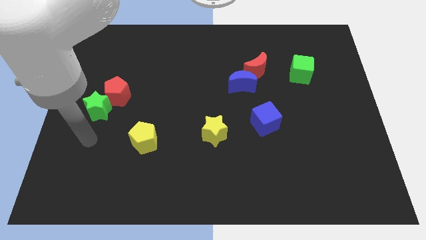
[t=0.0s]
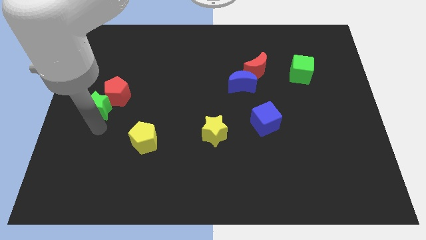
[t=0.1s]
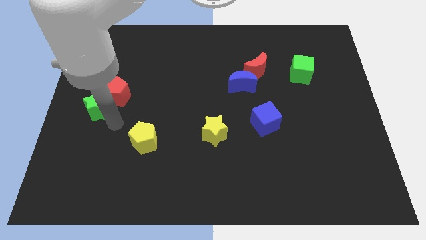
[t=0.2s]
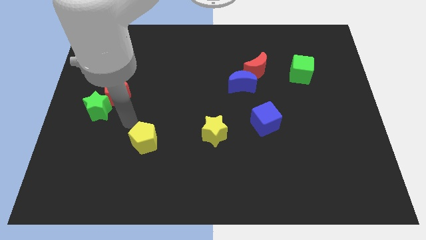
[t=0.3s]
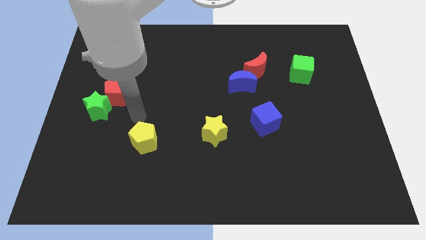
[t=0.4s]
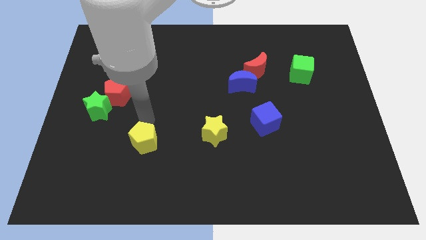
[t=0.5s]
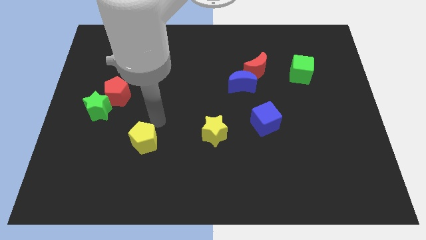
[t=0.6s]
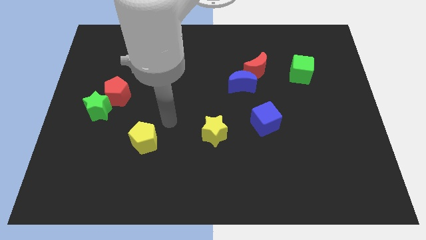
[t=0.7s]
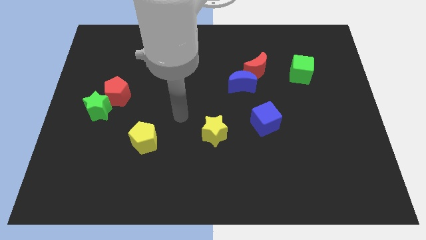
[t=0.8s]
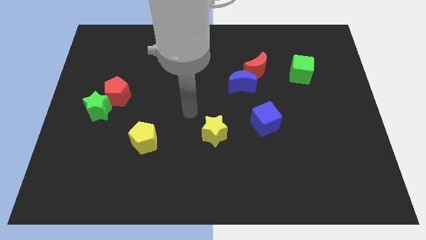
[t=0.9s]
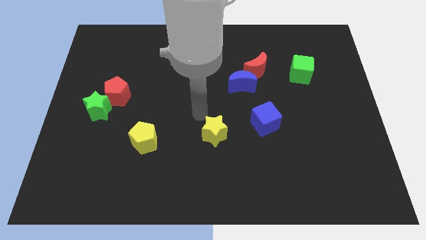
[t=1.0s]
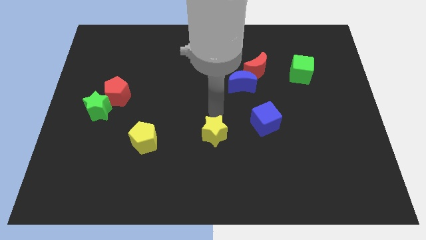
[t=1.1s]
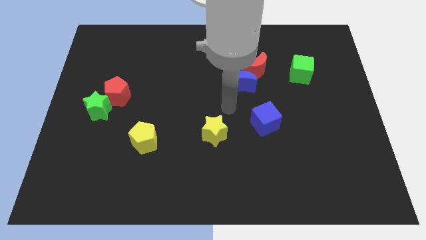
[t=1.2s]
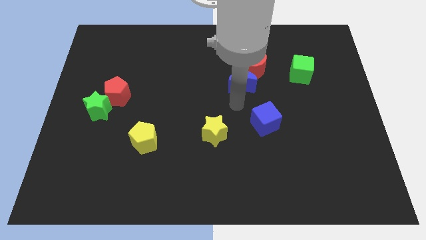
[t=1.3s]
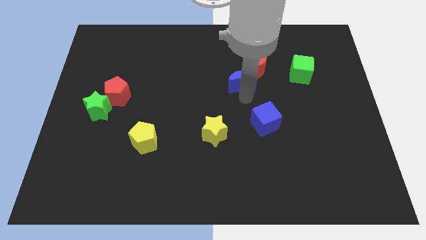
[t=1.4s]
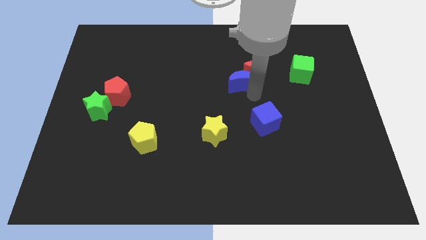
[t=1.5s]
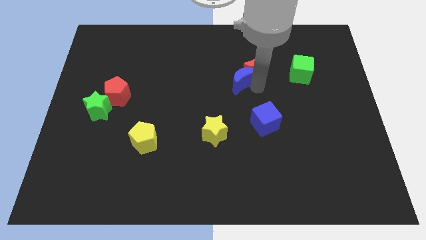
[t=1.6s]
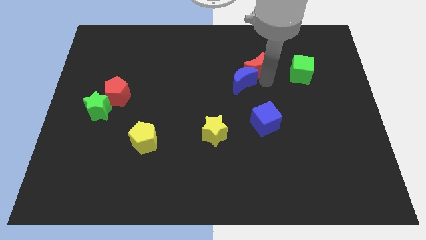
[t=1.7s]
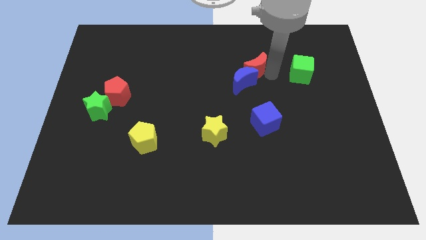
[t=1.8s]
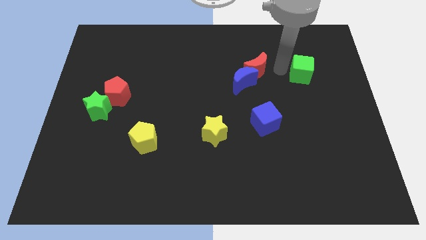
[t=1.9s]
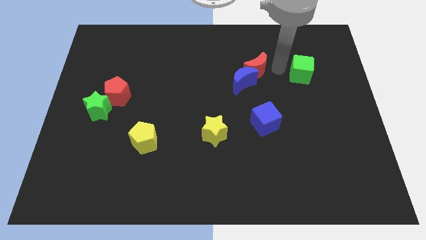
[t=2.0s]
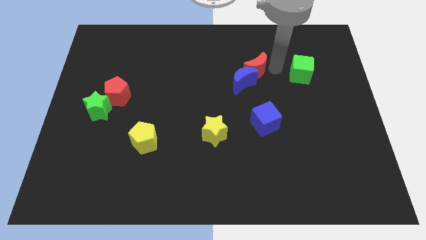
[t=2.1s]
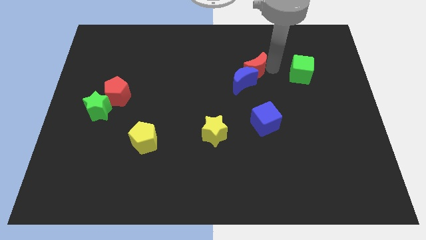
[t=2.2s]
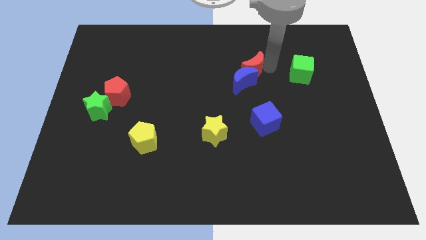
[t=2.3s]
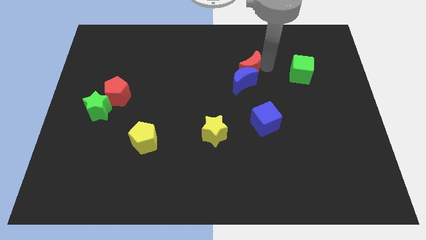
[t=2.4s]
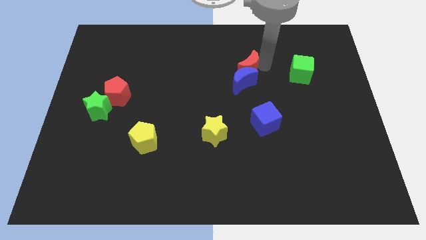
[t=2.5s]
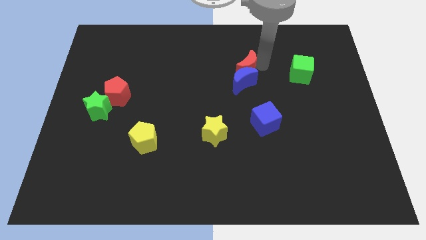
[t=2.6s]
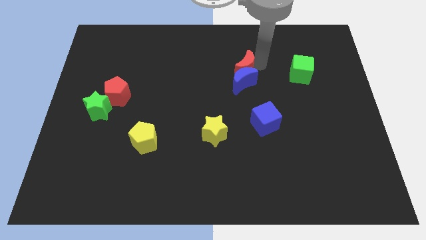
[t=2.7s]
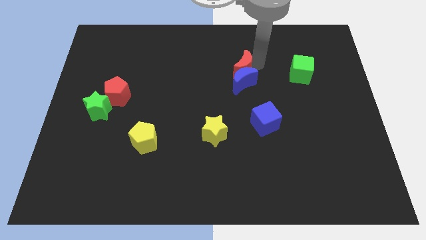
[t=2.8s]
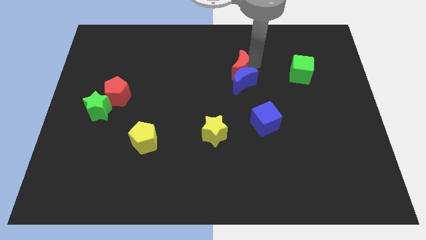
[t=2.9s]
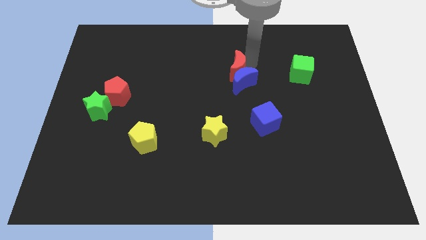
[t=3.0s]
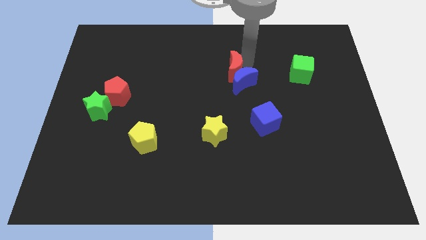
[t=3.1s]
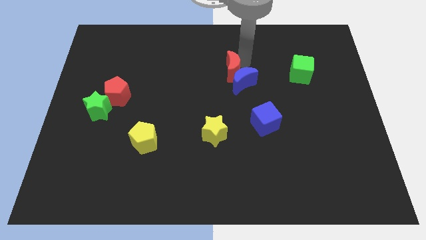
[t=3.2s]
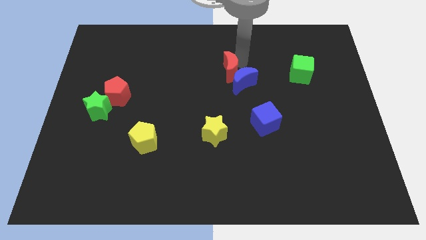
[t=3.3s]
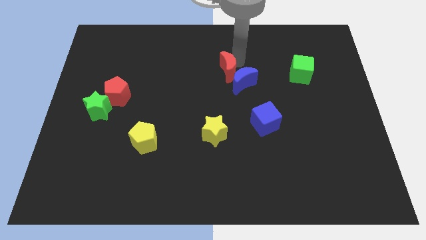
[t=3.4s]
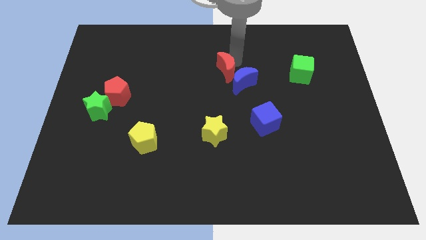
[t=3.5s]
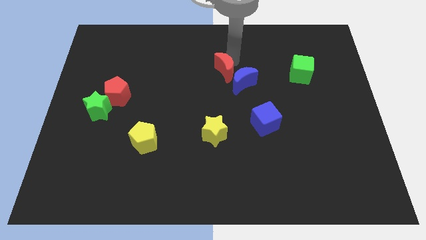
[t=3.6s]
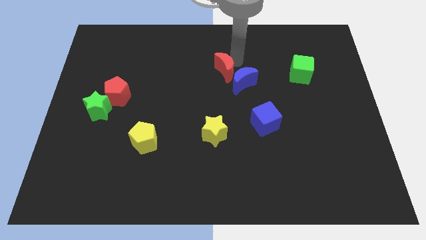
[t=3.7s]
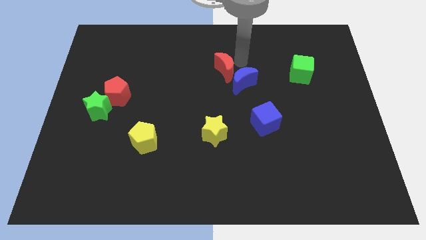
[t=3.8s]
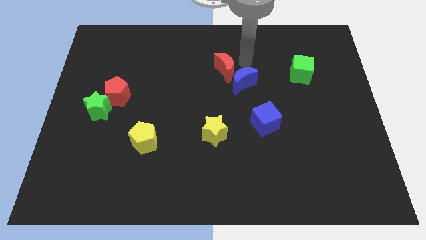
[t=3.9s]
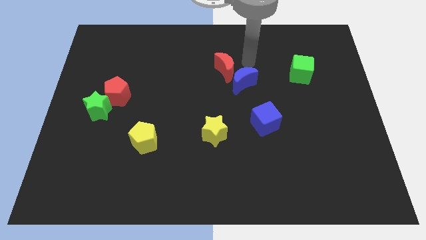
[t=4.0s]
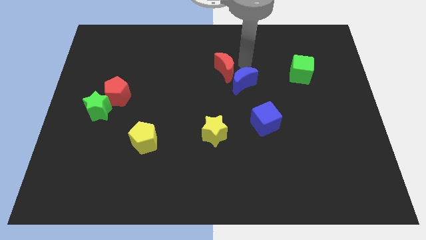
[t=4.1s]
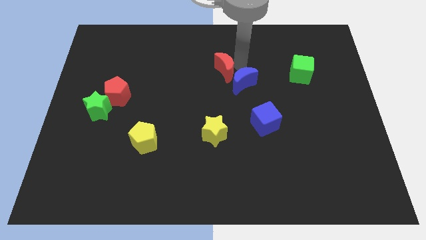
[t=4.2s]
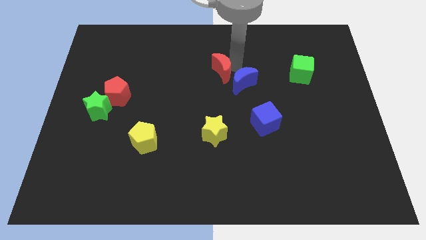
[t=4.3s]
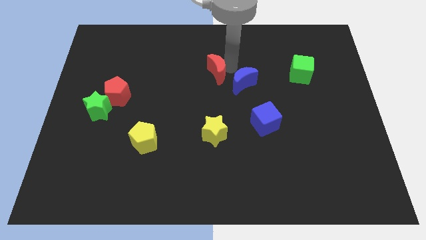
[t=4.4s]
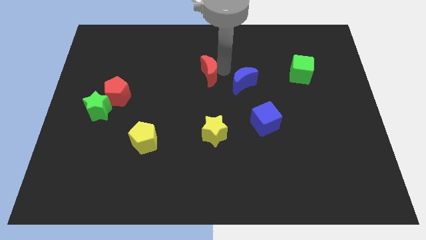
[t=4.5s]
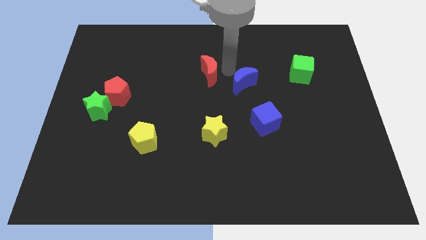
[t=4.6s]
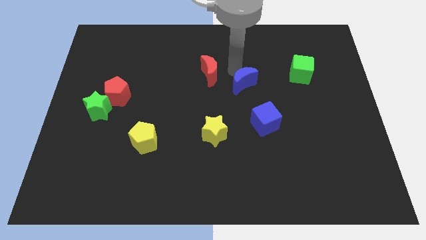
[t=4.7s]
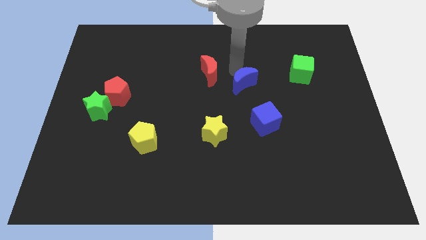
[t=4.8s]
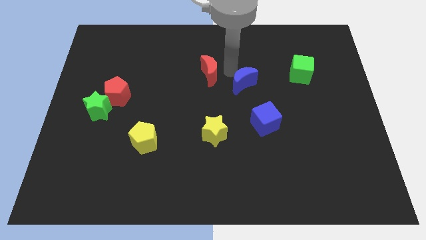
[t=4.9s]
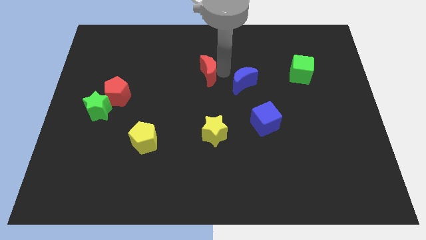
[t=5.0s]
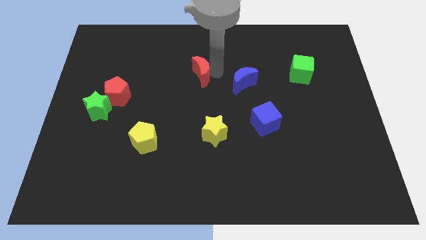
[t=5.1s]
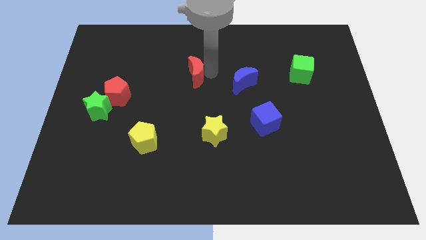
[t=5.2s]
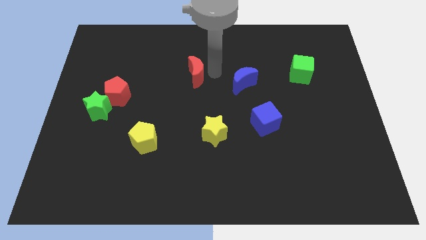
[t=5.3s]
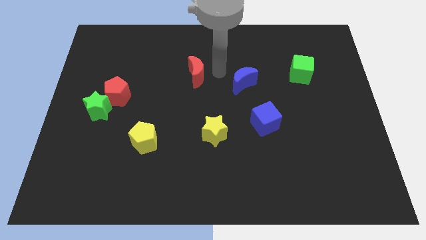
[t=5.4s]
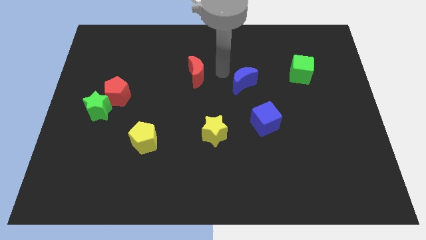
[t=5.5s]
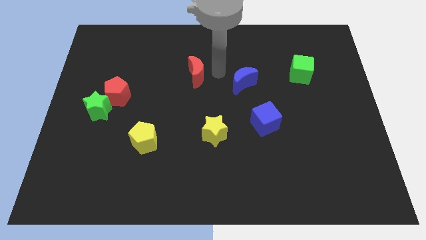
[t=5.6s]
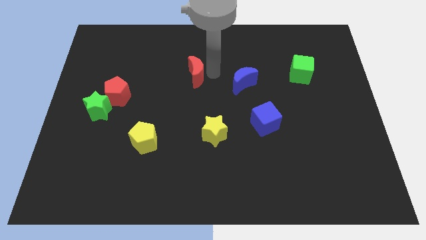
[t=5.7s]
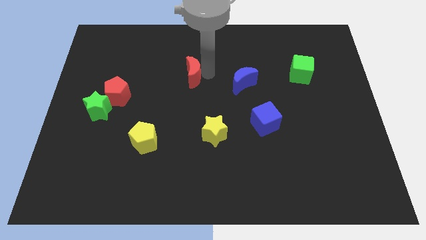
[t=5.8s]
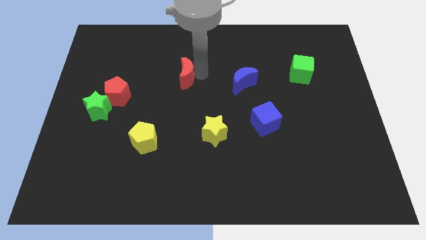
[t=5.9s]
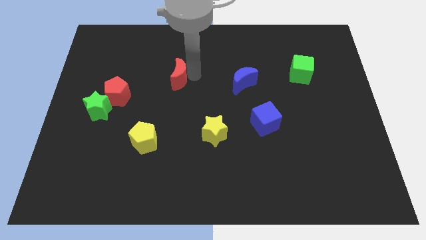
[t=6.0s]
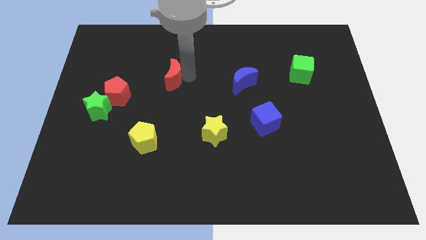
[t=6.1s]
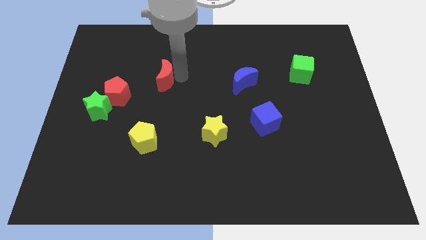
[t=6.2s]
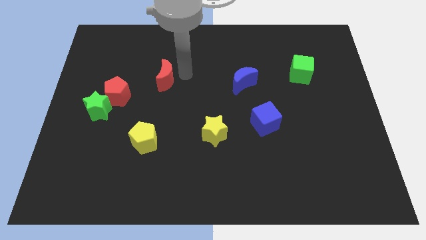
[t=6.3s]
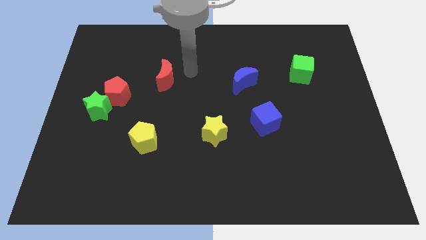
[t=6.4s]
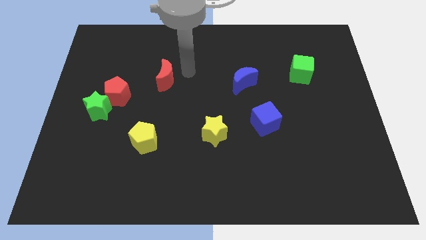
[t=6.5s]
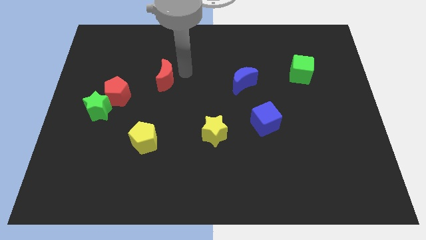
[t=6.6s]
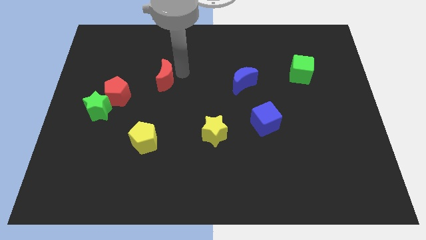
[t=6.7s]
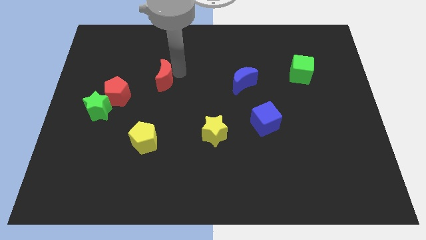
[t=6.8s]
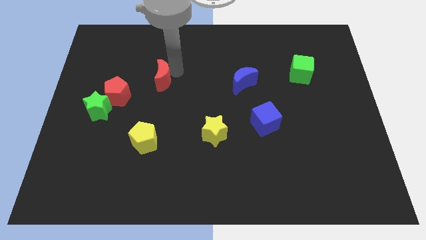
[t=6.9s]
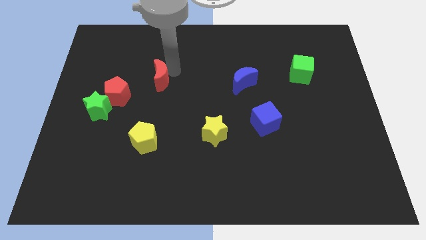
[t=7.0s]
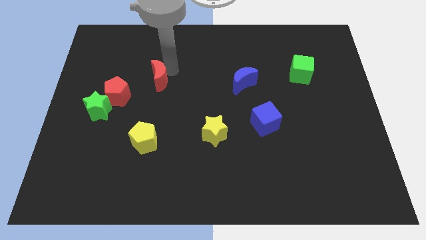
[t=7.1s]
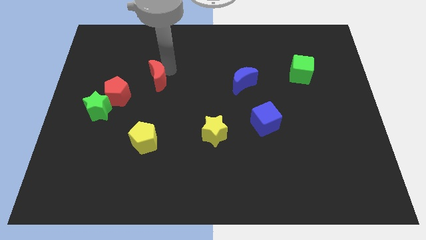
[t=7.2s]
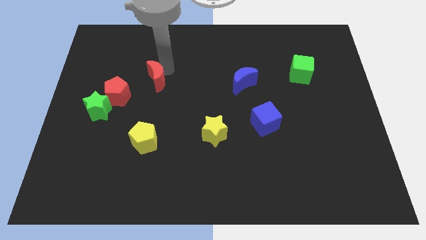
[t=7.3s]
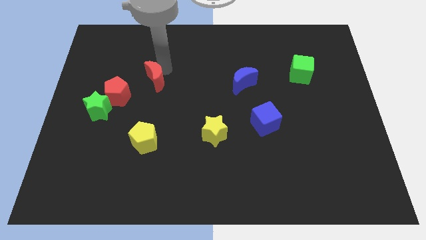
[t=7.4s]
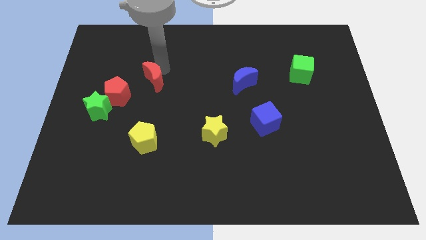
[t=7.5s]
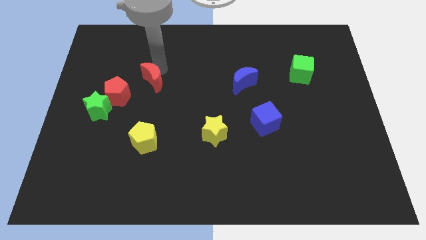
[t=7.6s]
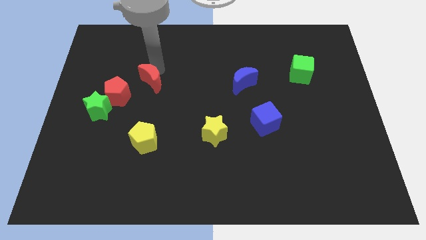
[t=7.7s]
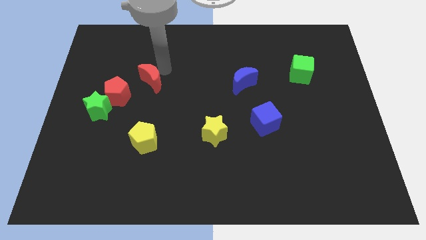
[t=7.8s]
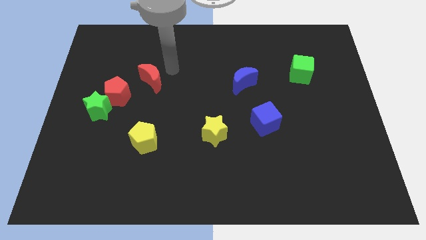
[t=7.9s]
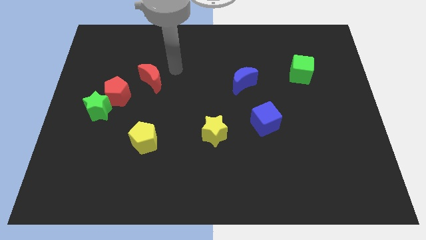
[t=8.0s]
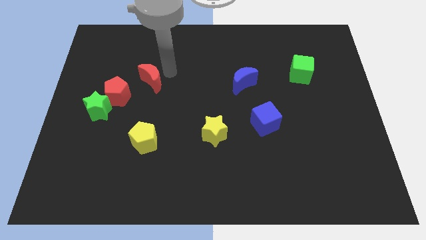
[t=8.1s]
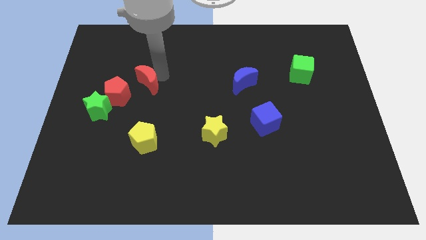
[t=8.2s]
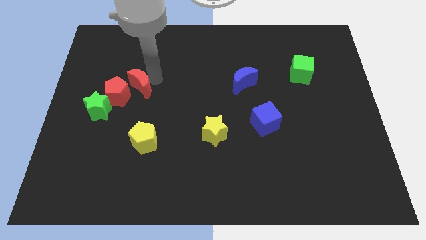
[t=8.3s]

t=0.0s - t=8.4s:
move the red moon to the red pentagon
